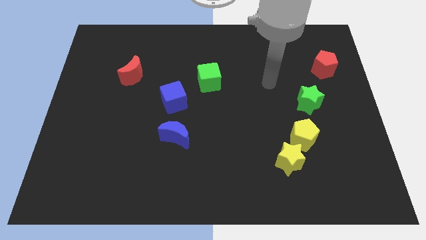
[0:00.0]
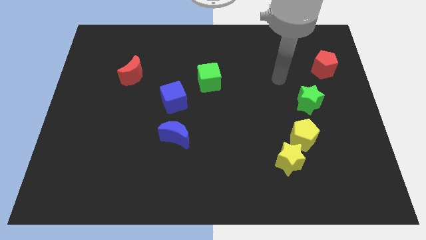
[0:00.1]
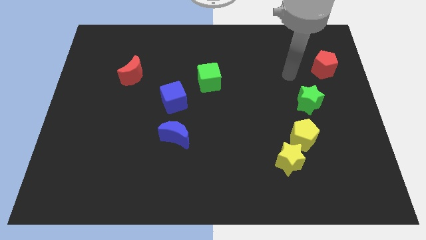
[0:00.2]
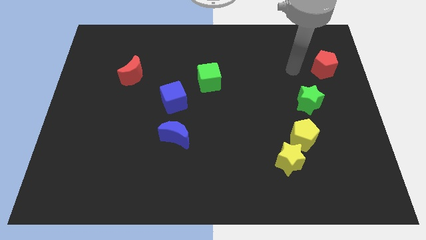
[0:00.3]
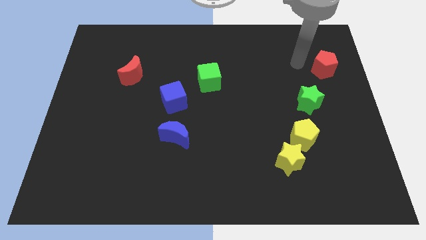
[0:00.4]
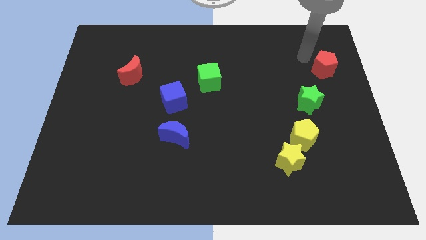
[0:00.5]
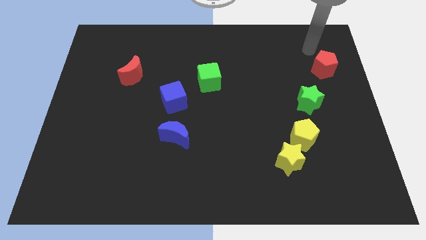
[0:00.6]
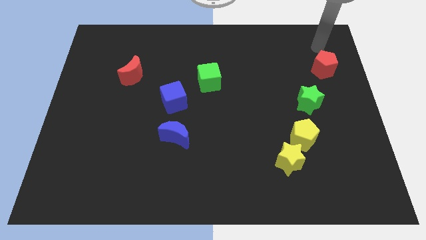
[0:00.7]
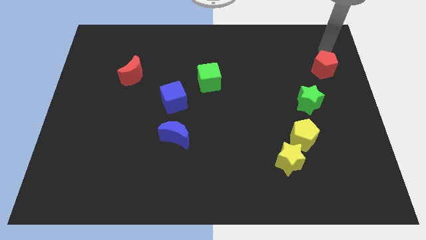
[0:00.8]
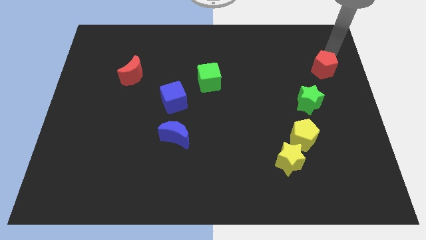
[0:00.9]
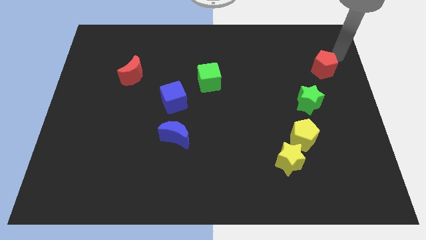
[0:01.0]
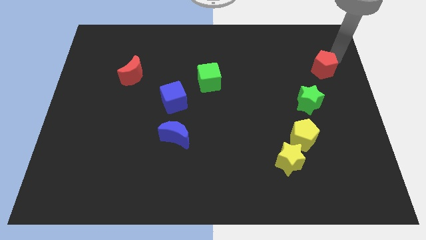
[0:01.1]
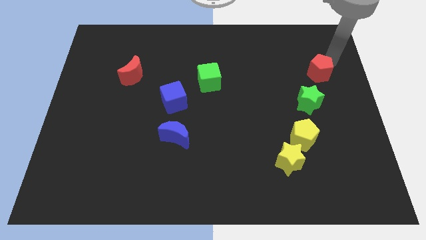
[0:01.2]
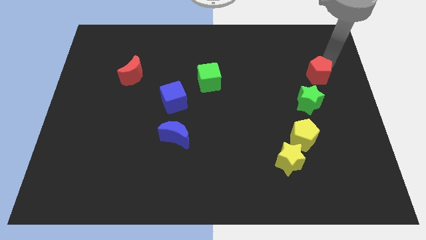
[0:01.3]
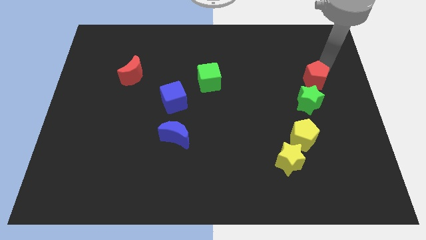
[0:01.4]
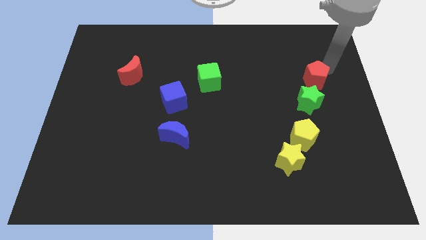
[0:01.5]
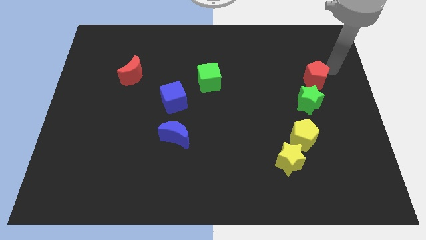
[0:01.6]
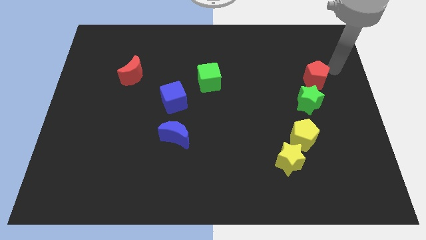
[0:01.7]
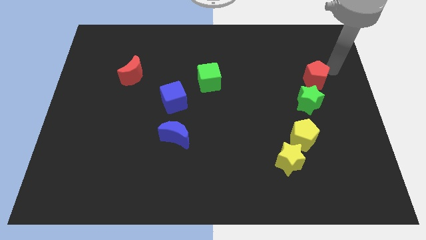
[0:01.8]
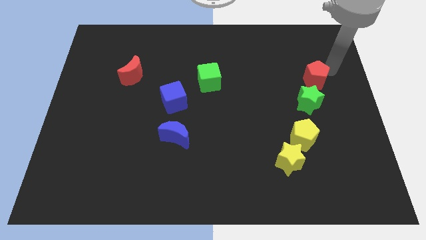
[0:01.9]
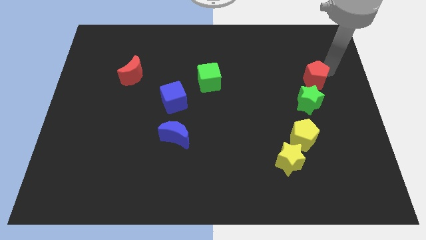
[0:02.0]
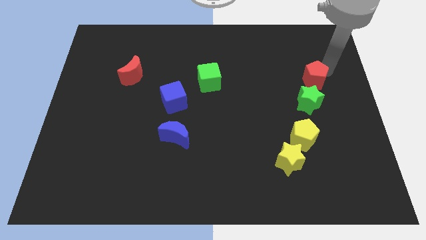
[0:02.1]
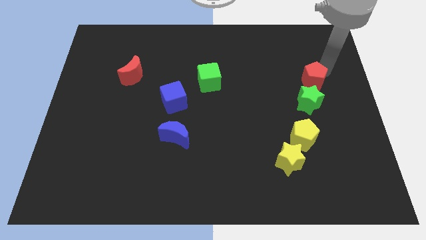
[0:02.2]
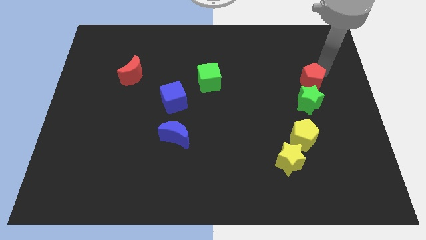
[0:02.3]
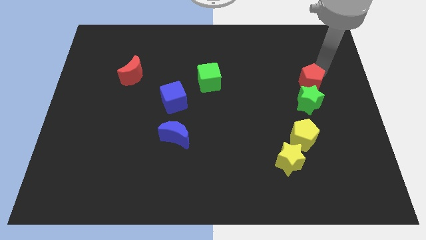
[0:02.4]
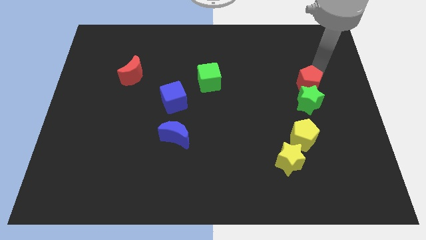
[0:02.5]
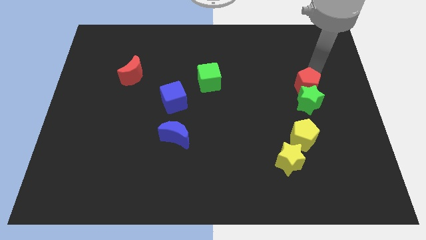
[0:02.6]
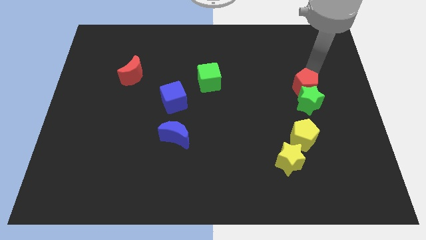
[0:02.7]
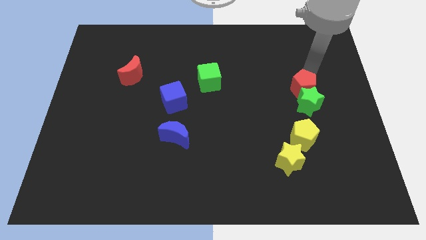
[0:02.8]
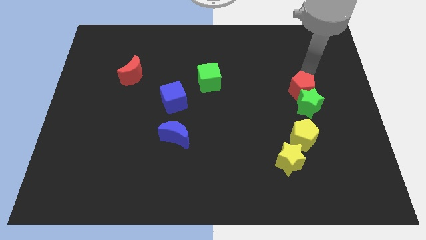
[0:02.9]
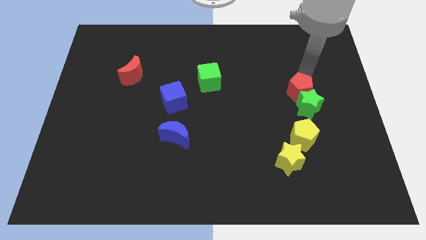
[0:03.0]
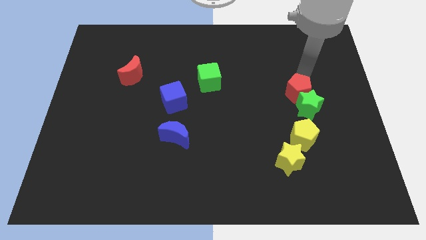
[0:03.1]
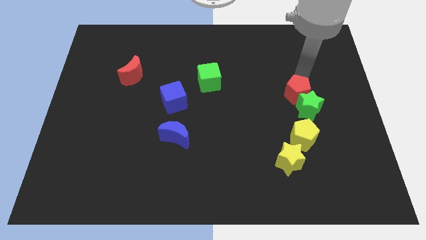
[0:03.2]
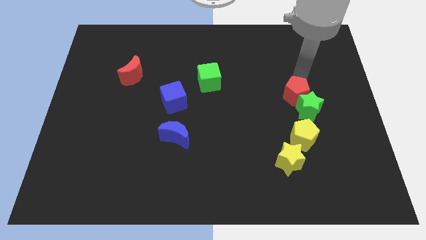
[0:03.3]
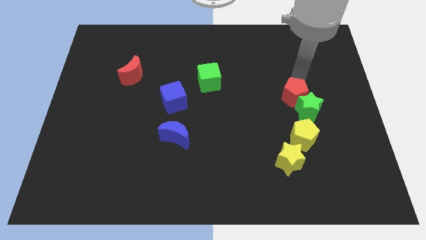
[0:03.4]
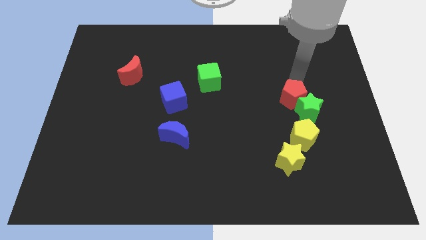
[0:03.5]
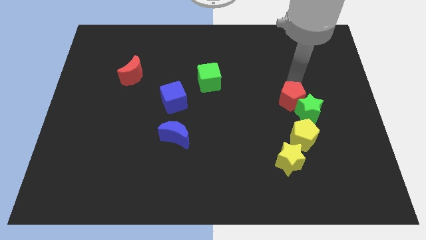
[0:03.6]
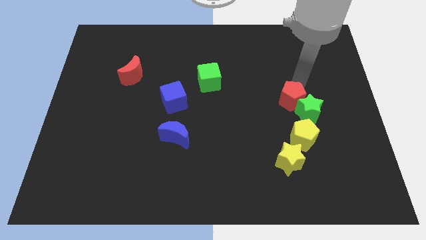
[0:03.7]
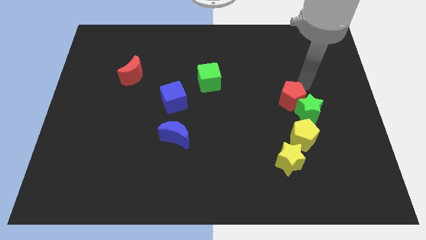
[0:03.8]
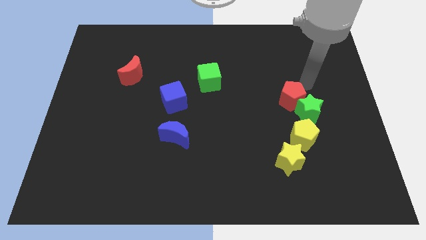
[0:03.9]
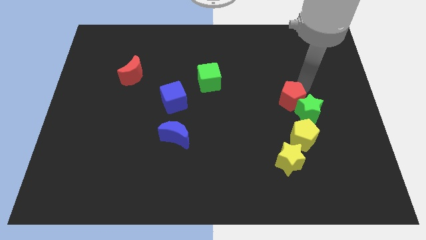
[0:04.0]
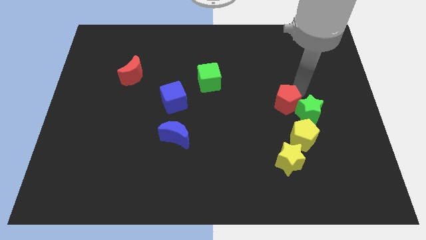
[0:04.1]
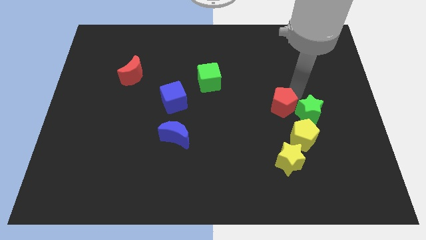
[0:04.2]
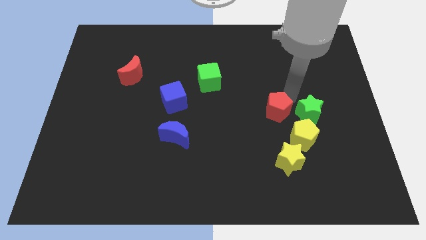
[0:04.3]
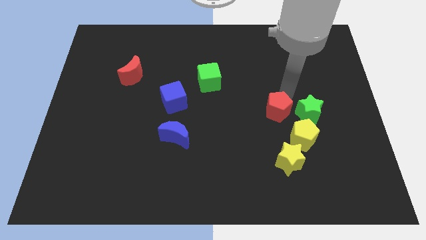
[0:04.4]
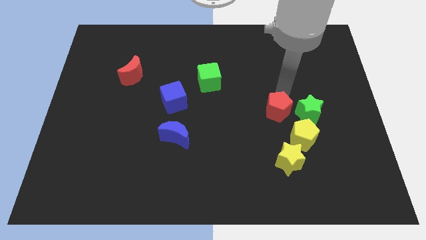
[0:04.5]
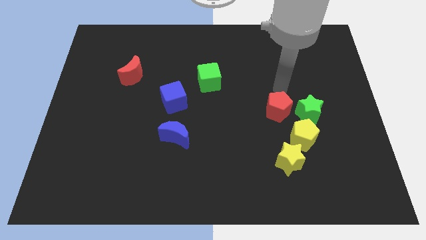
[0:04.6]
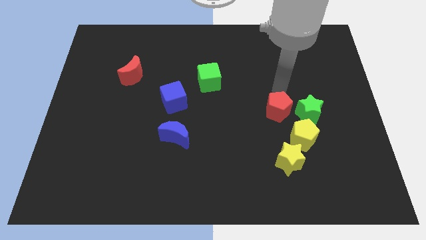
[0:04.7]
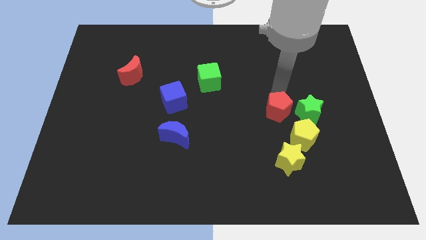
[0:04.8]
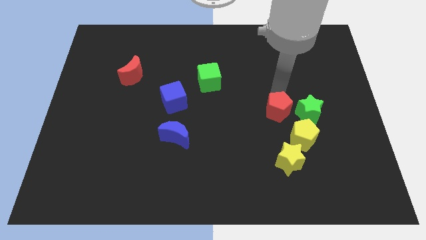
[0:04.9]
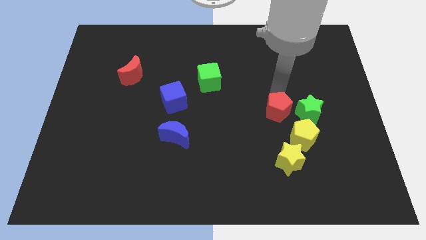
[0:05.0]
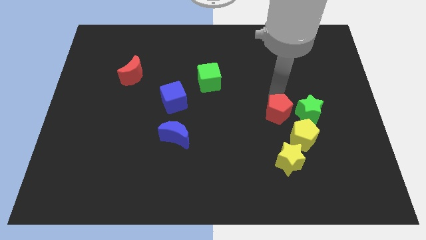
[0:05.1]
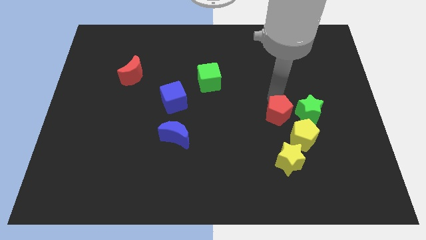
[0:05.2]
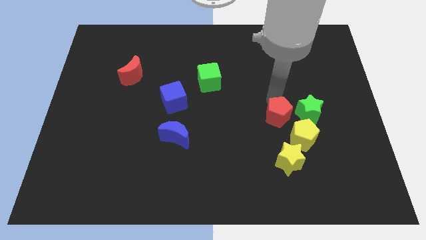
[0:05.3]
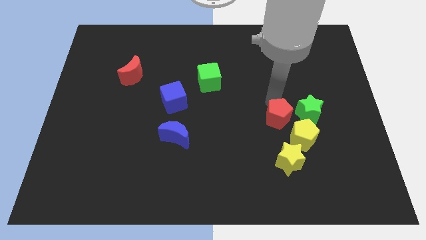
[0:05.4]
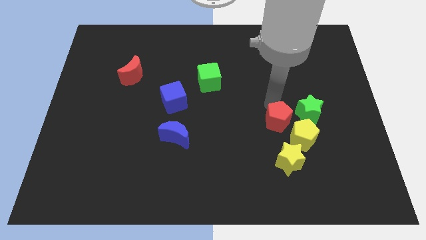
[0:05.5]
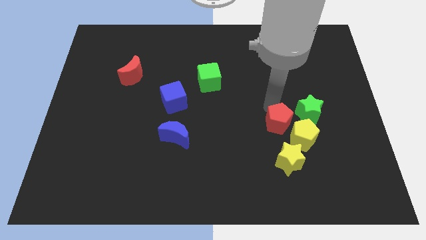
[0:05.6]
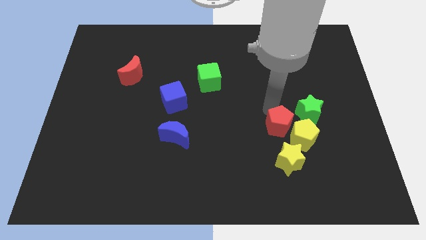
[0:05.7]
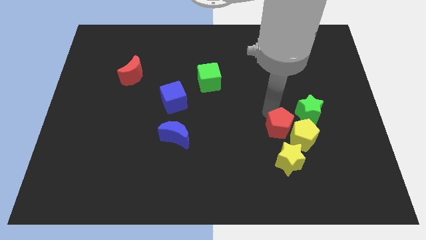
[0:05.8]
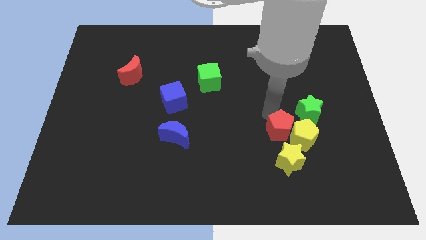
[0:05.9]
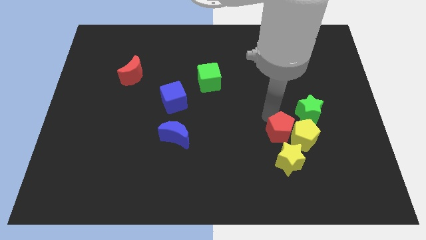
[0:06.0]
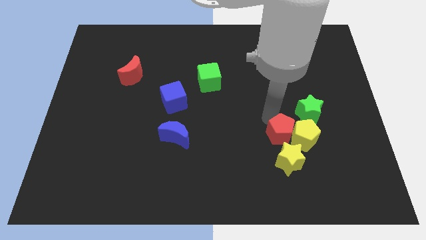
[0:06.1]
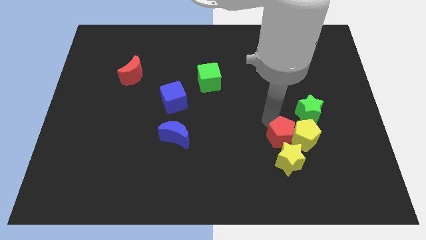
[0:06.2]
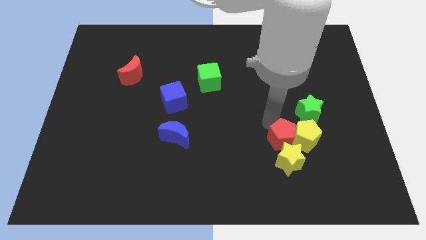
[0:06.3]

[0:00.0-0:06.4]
slide the red pentagon close to the yellow star

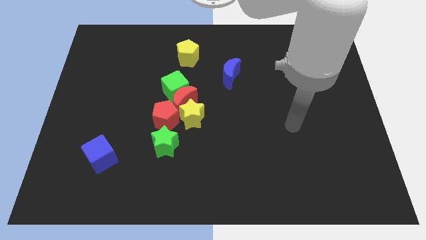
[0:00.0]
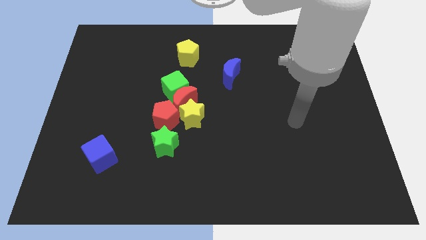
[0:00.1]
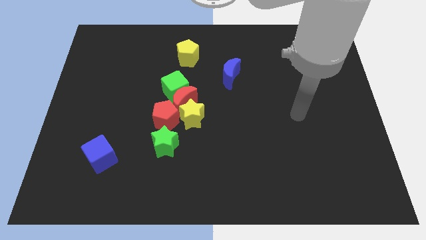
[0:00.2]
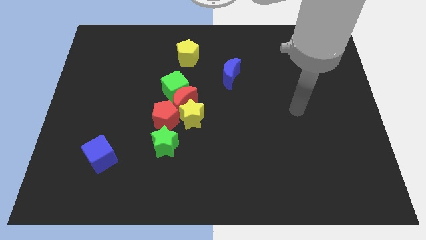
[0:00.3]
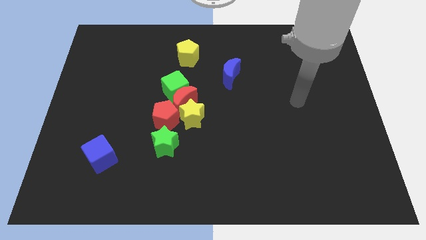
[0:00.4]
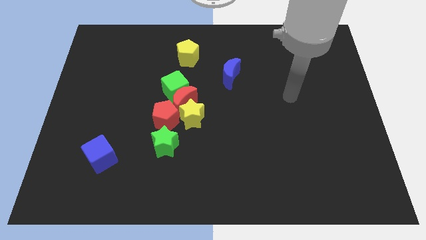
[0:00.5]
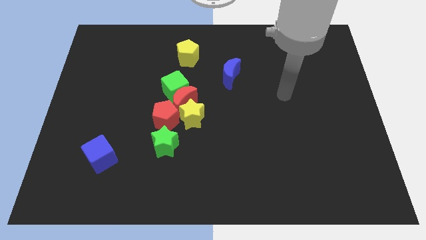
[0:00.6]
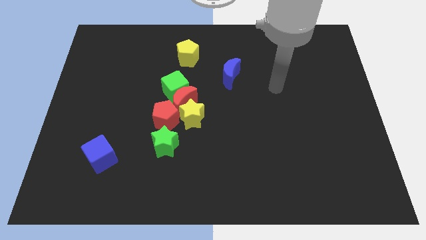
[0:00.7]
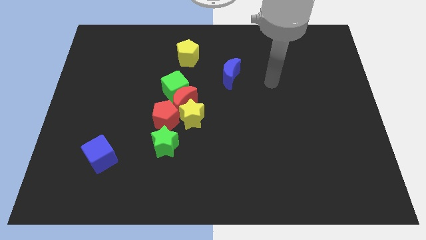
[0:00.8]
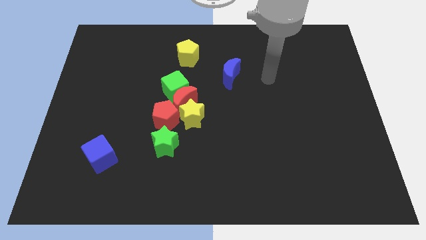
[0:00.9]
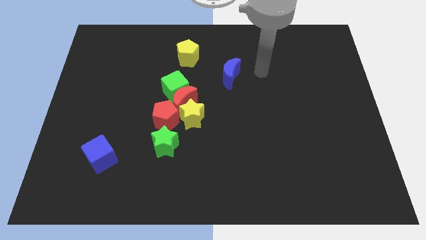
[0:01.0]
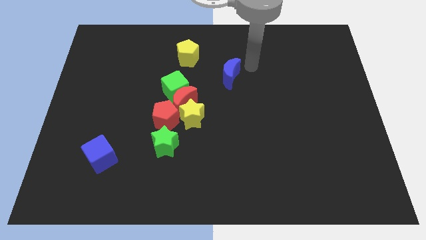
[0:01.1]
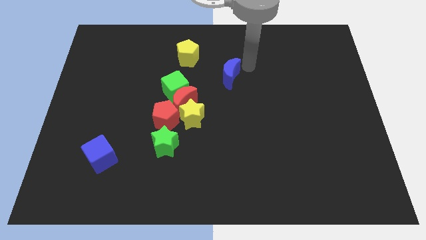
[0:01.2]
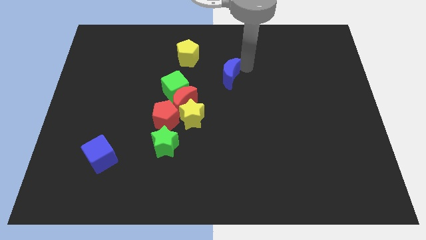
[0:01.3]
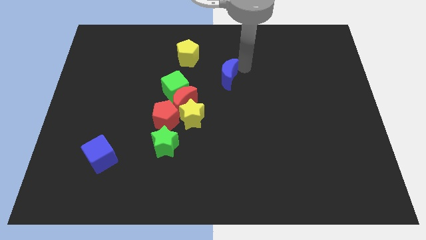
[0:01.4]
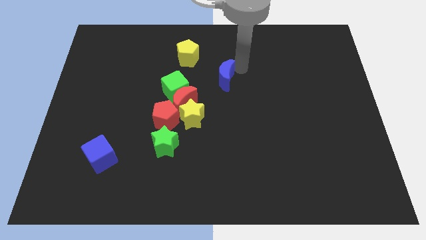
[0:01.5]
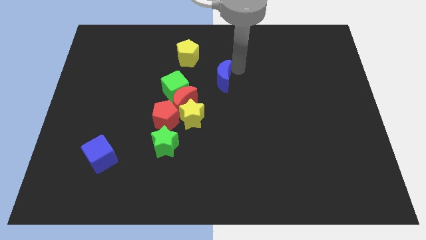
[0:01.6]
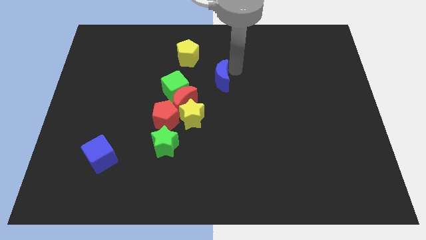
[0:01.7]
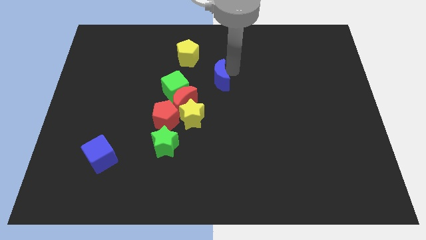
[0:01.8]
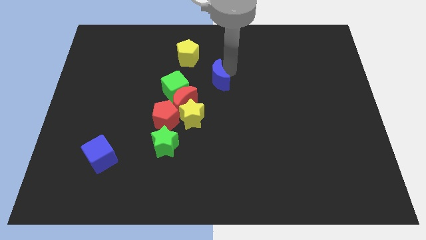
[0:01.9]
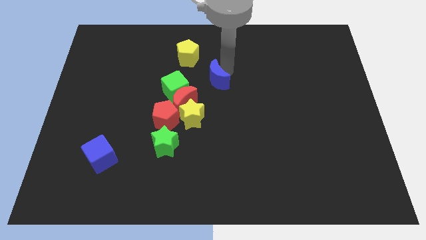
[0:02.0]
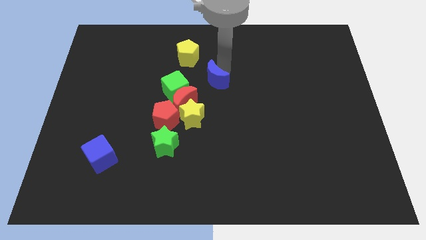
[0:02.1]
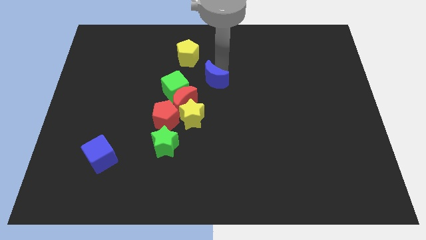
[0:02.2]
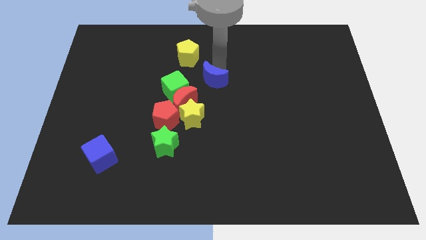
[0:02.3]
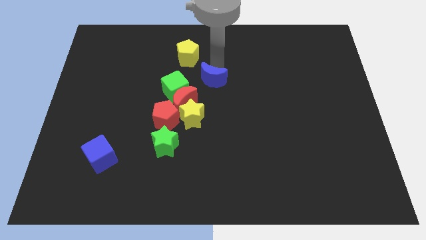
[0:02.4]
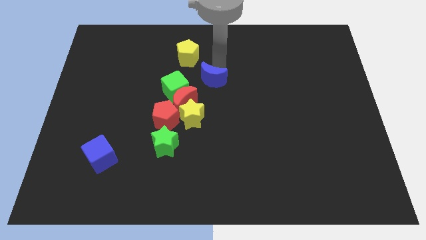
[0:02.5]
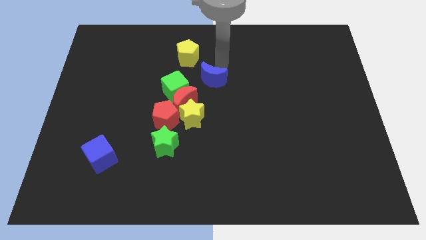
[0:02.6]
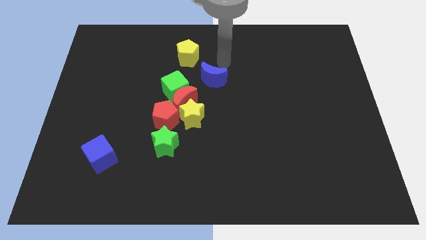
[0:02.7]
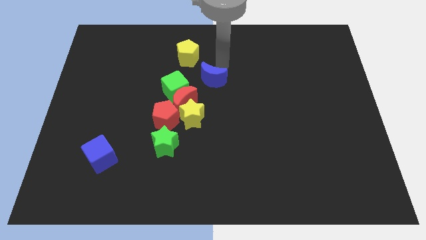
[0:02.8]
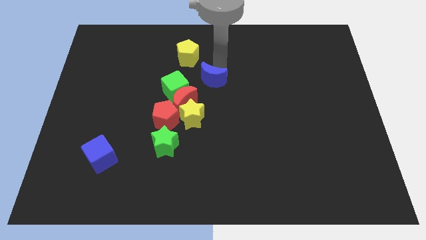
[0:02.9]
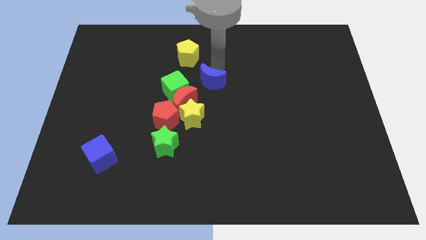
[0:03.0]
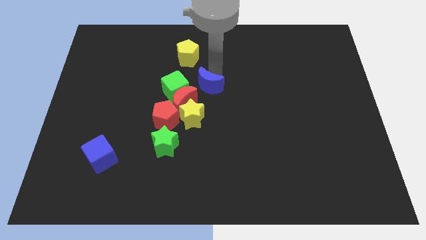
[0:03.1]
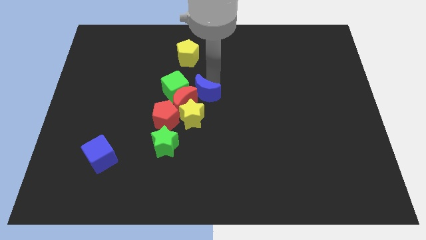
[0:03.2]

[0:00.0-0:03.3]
put the blue moon next to the red moon
